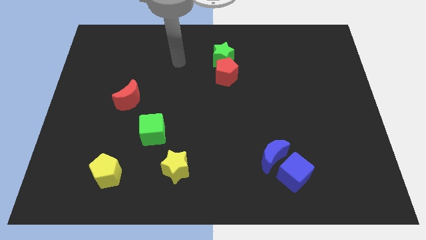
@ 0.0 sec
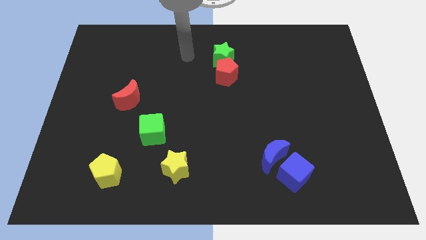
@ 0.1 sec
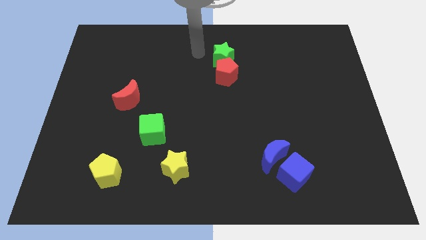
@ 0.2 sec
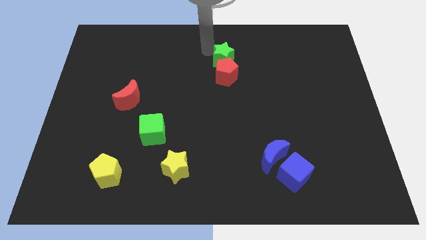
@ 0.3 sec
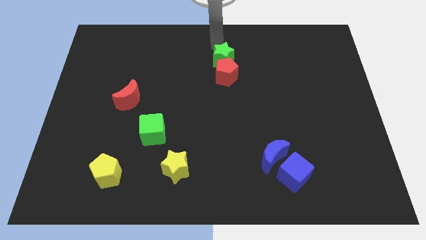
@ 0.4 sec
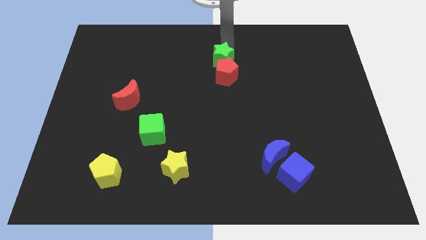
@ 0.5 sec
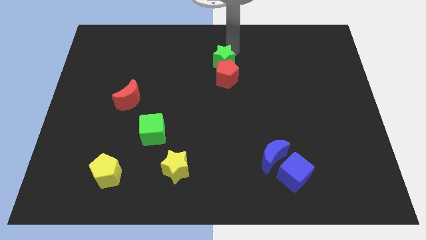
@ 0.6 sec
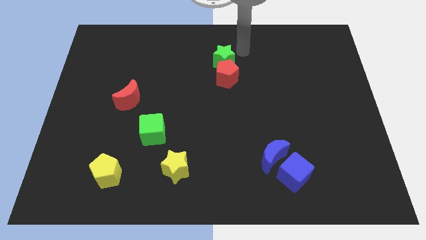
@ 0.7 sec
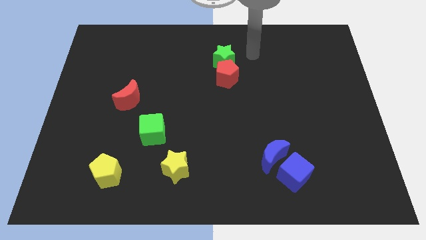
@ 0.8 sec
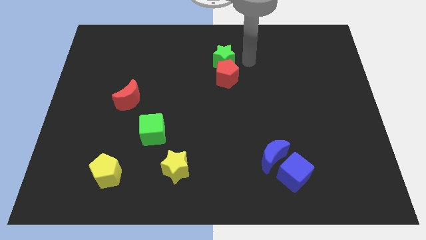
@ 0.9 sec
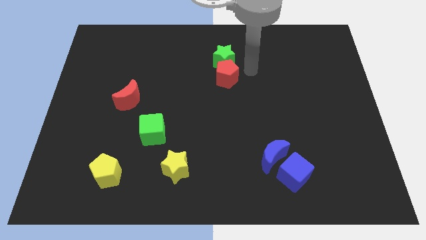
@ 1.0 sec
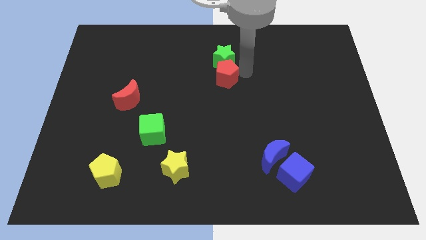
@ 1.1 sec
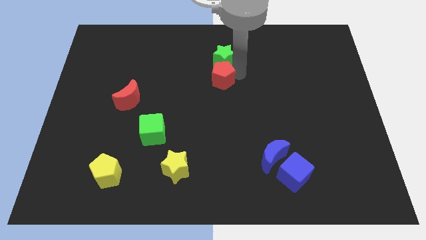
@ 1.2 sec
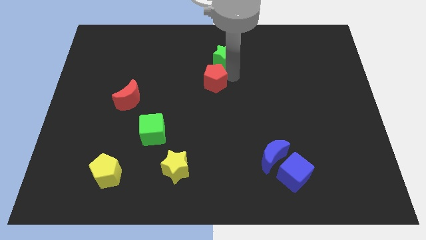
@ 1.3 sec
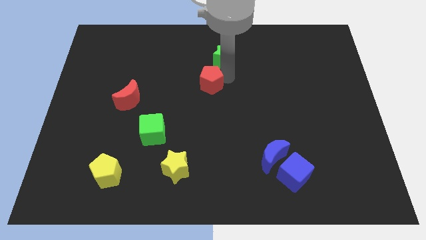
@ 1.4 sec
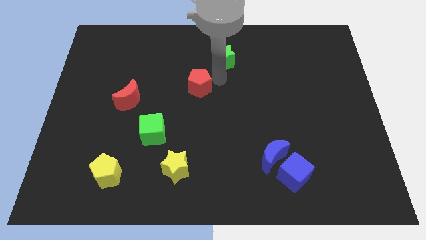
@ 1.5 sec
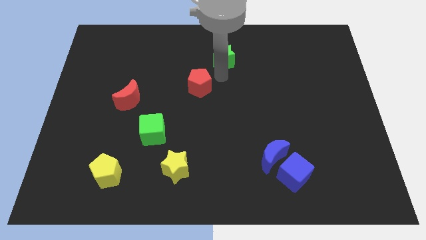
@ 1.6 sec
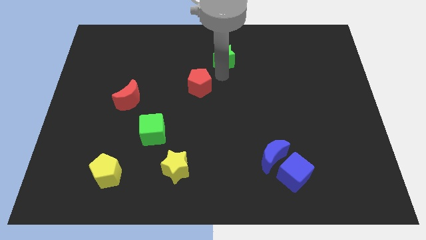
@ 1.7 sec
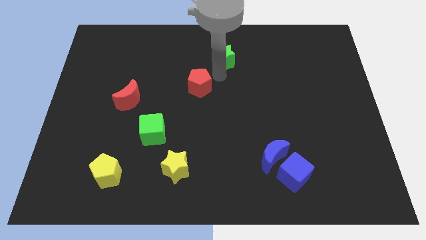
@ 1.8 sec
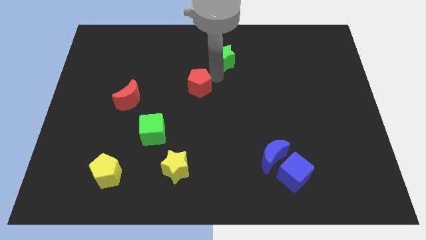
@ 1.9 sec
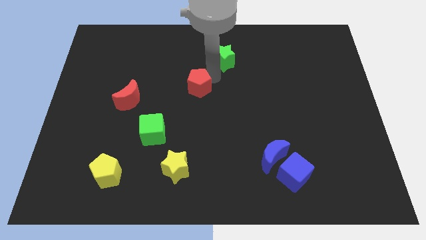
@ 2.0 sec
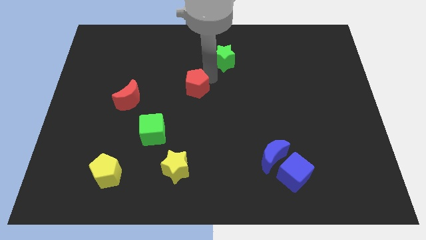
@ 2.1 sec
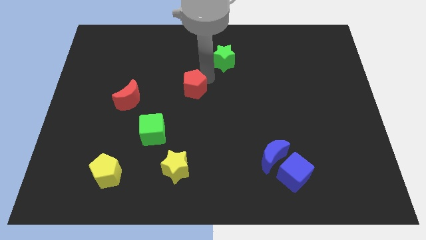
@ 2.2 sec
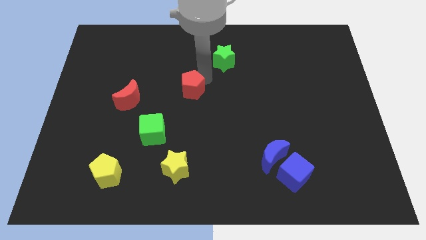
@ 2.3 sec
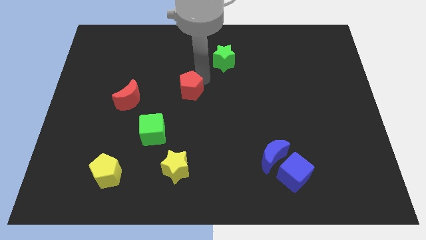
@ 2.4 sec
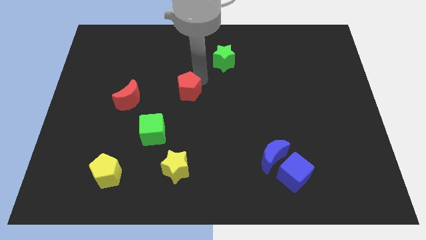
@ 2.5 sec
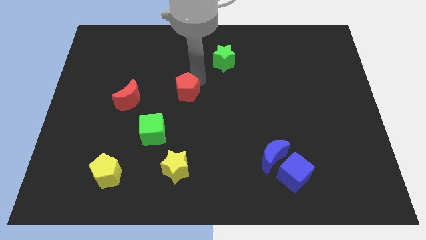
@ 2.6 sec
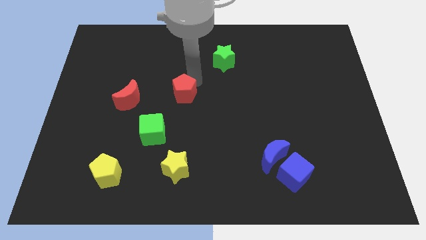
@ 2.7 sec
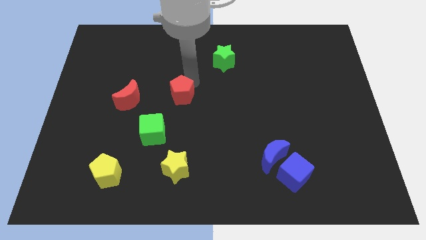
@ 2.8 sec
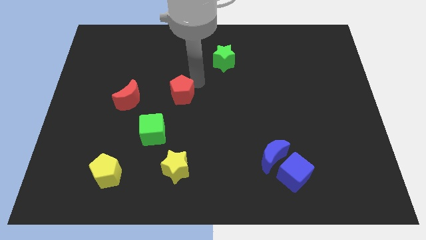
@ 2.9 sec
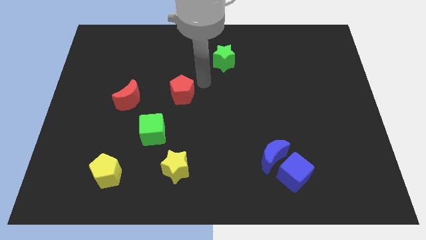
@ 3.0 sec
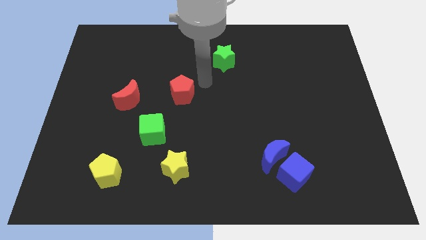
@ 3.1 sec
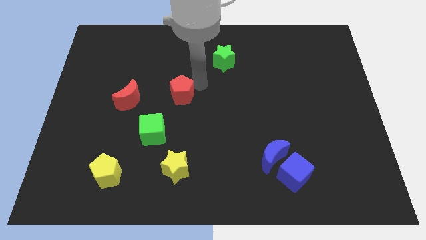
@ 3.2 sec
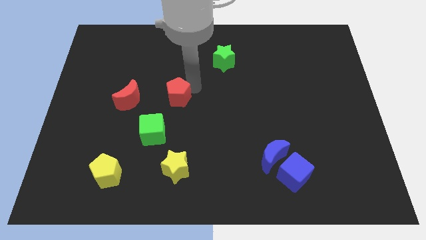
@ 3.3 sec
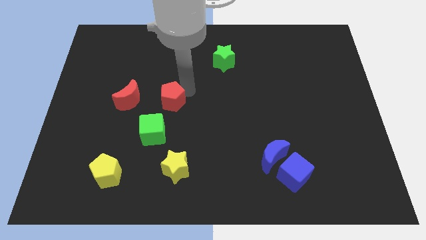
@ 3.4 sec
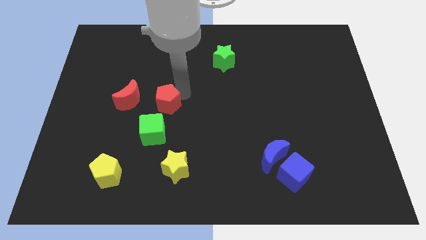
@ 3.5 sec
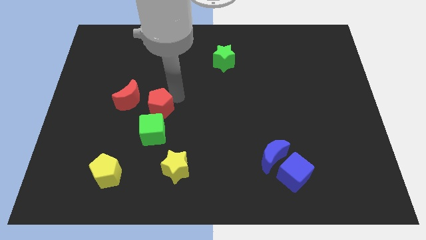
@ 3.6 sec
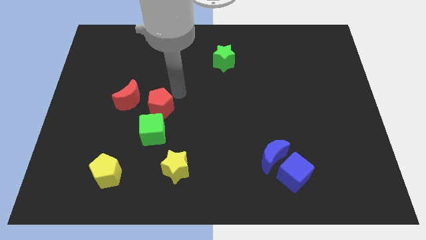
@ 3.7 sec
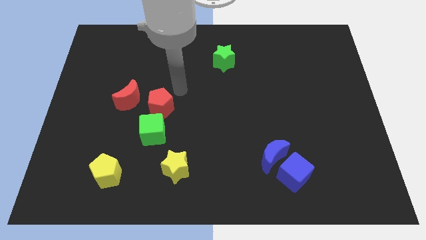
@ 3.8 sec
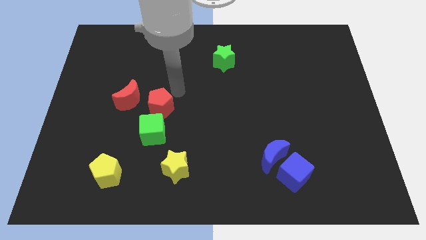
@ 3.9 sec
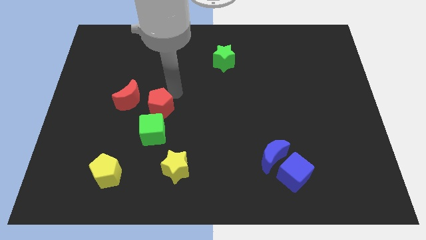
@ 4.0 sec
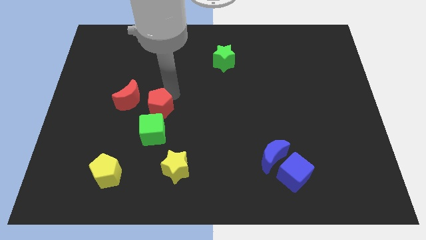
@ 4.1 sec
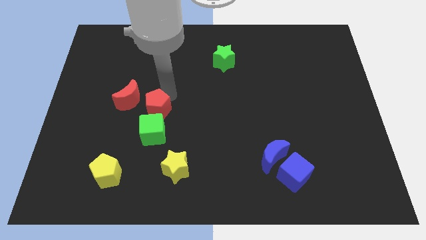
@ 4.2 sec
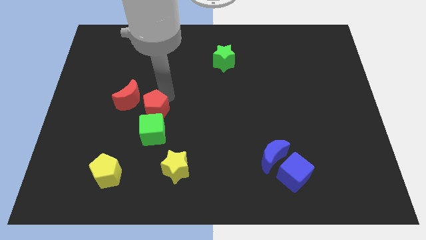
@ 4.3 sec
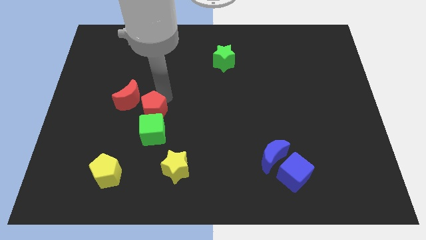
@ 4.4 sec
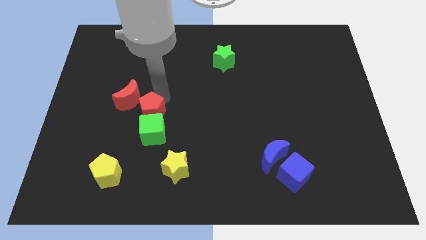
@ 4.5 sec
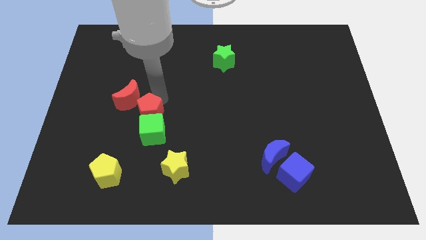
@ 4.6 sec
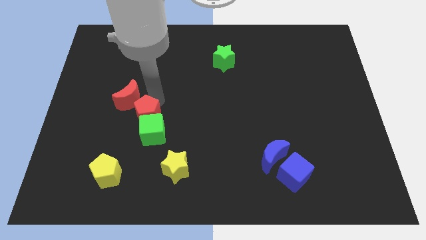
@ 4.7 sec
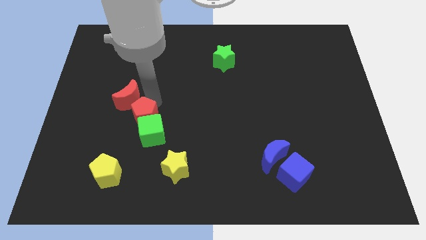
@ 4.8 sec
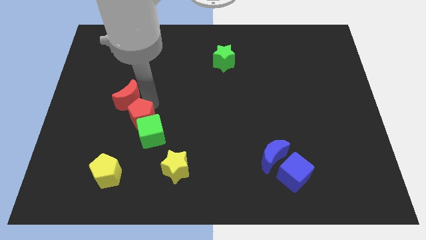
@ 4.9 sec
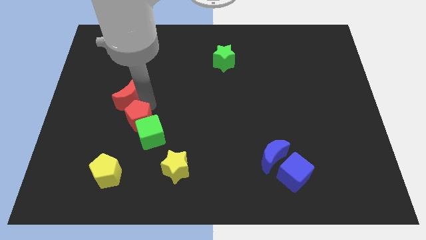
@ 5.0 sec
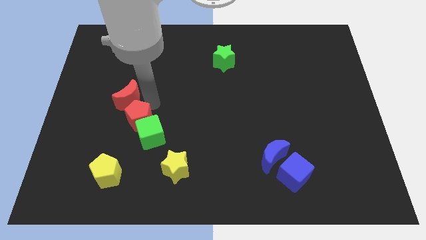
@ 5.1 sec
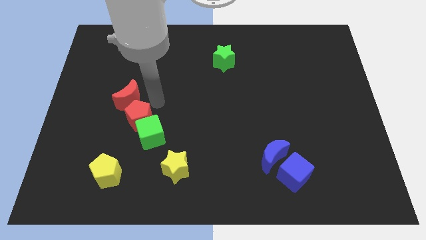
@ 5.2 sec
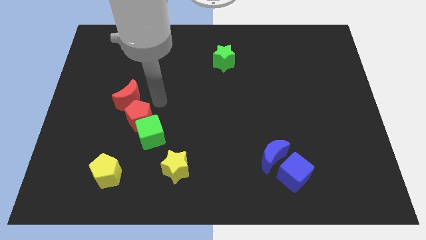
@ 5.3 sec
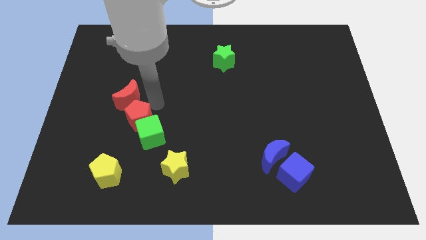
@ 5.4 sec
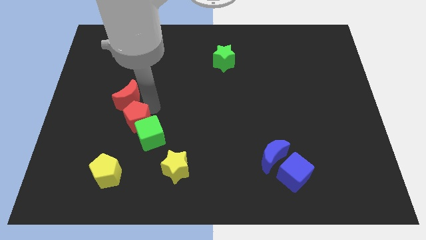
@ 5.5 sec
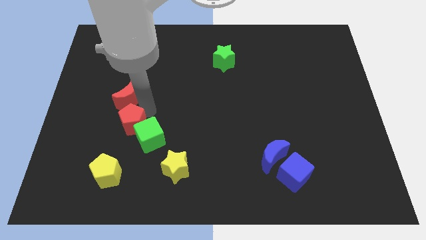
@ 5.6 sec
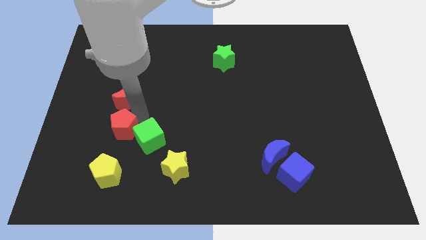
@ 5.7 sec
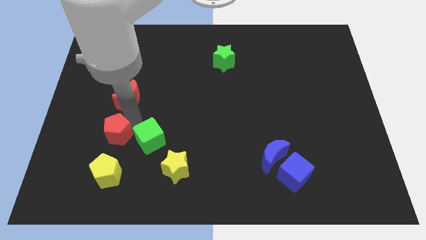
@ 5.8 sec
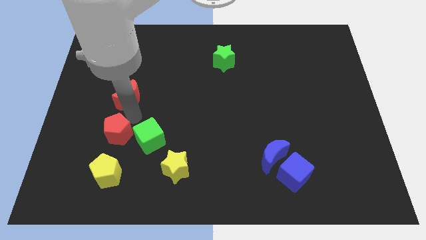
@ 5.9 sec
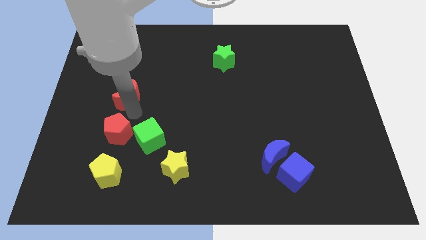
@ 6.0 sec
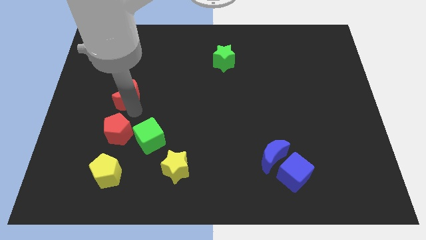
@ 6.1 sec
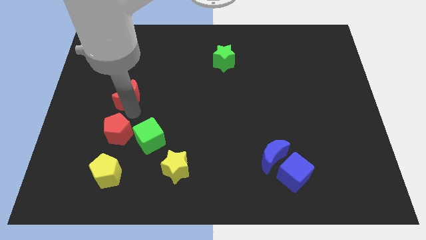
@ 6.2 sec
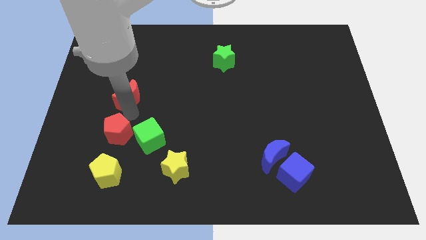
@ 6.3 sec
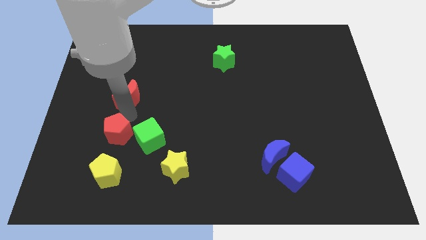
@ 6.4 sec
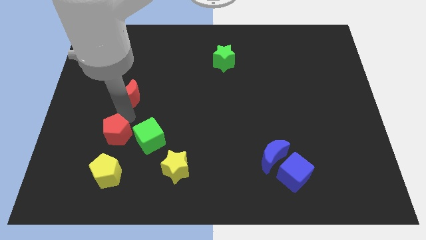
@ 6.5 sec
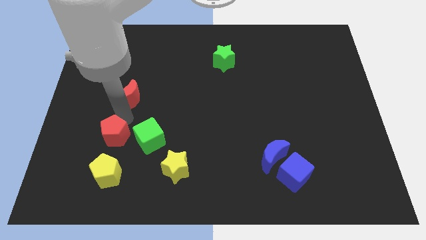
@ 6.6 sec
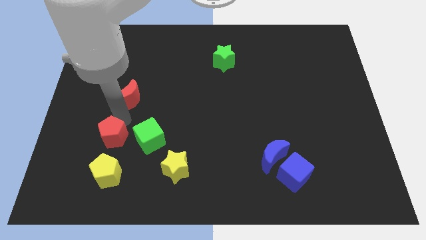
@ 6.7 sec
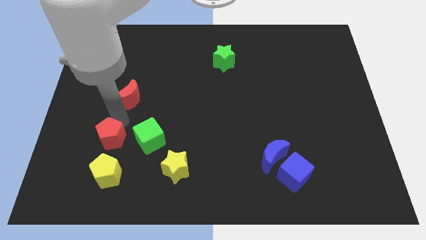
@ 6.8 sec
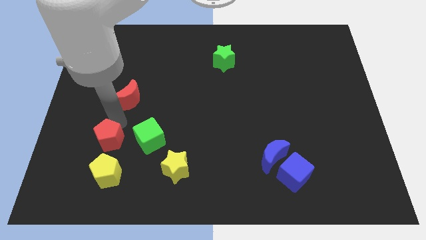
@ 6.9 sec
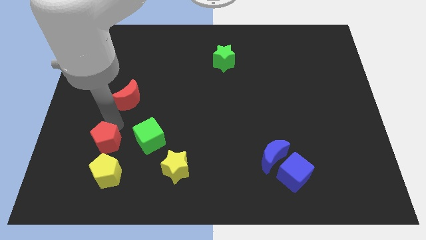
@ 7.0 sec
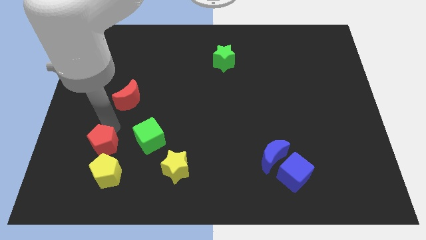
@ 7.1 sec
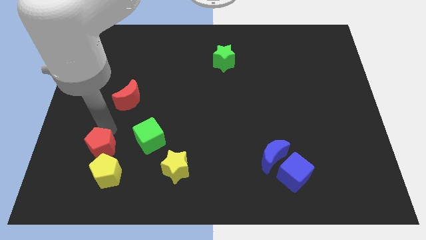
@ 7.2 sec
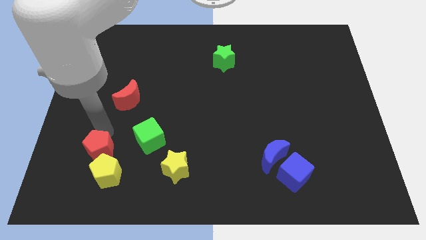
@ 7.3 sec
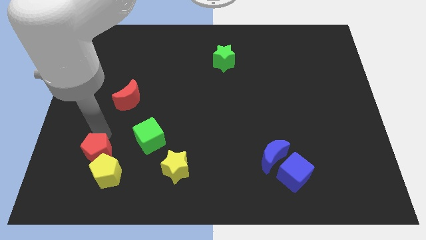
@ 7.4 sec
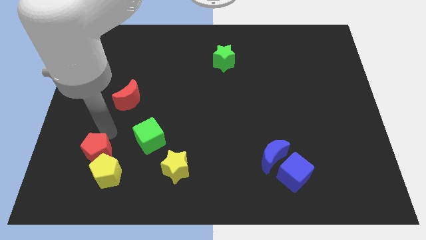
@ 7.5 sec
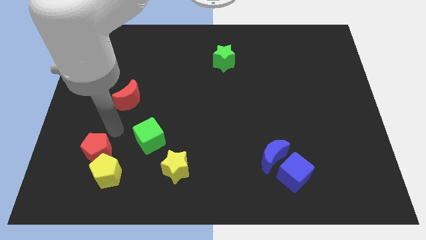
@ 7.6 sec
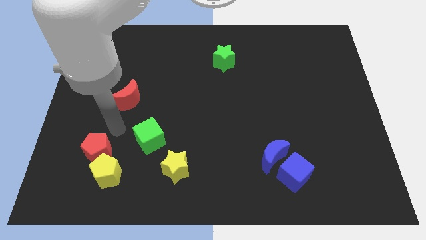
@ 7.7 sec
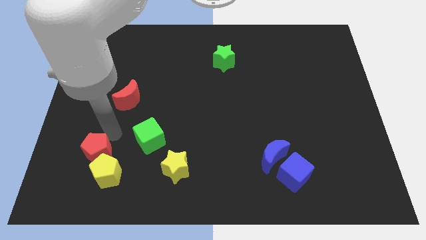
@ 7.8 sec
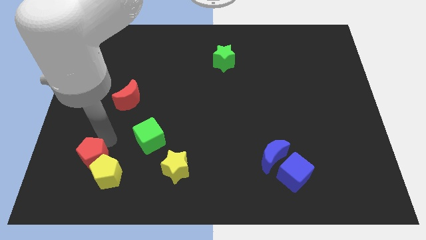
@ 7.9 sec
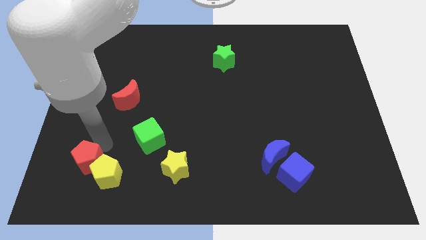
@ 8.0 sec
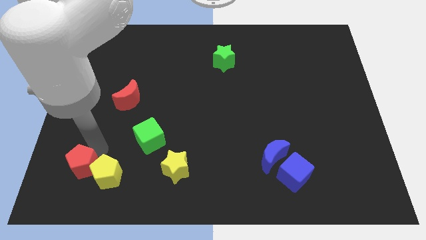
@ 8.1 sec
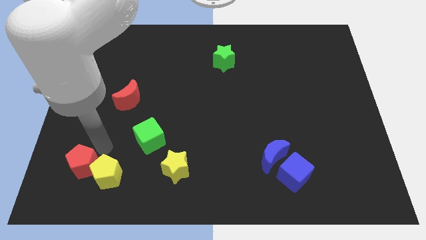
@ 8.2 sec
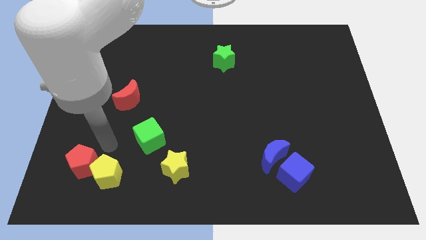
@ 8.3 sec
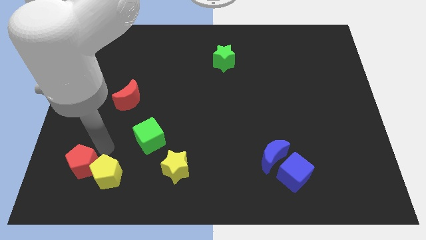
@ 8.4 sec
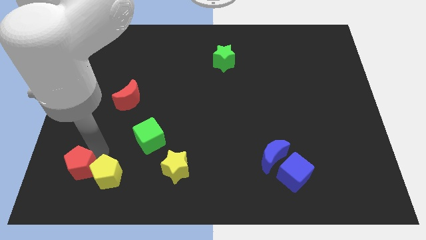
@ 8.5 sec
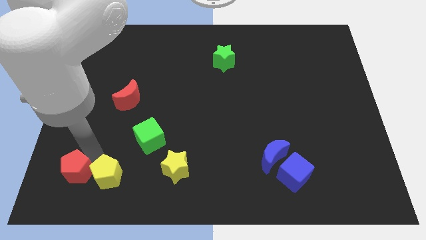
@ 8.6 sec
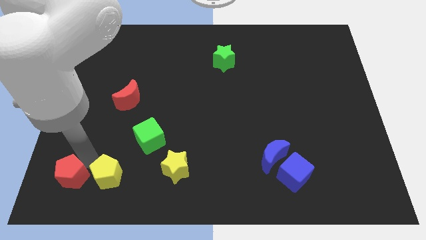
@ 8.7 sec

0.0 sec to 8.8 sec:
put the red pentagon to the bottom left corner
